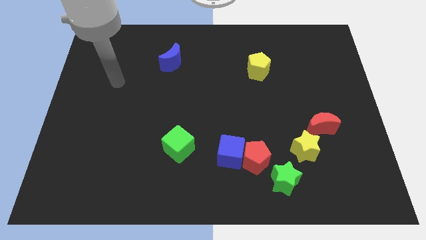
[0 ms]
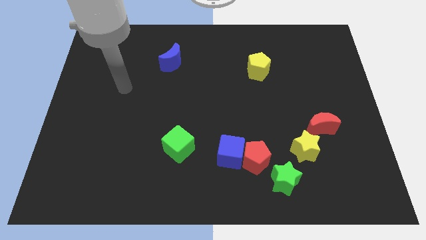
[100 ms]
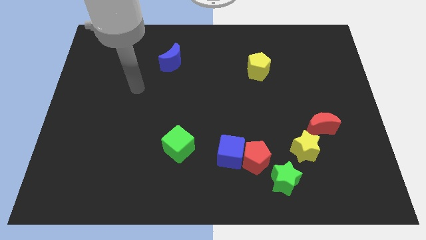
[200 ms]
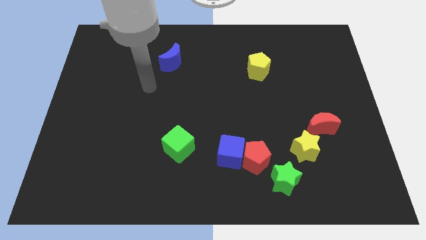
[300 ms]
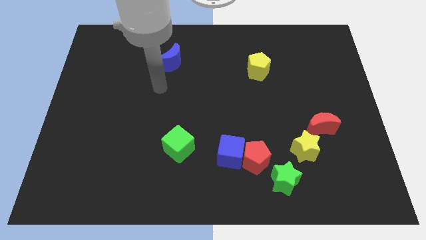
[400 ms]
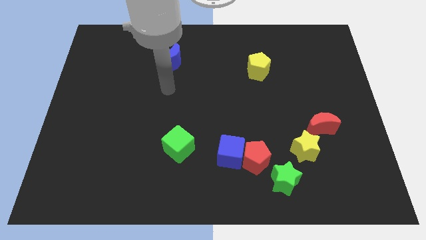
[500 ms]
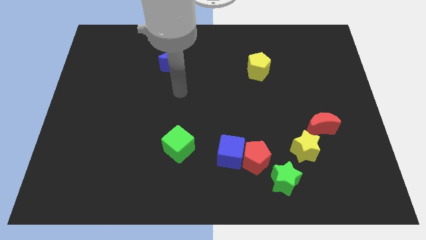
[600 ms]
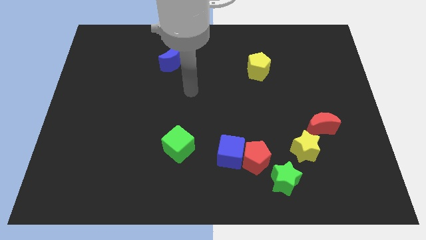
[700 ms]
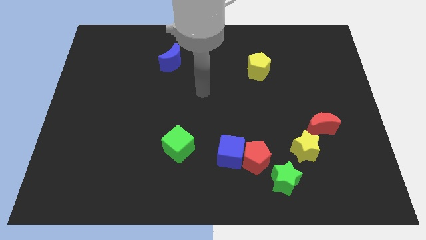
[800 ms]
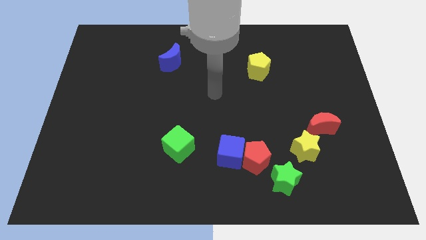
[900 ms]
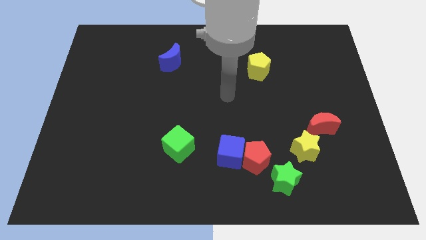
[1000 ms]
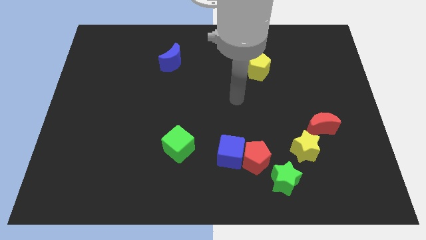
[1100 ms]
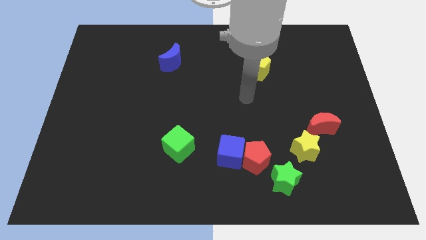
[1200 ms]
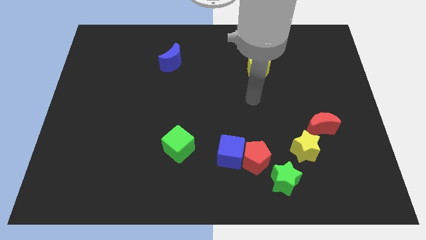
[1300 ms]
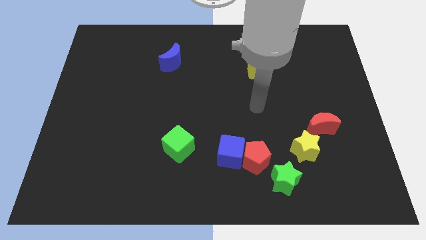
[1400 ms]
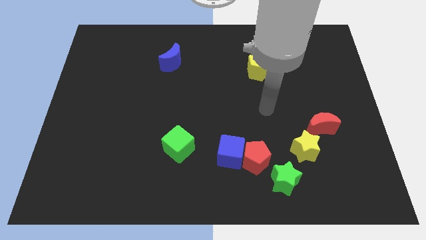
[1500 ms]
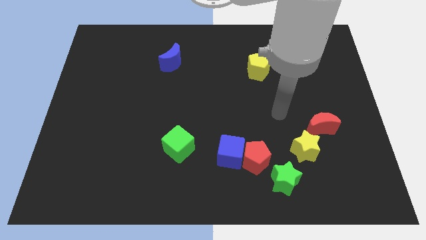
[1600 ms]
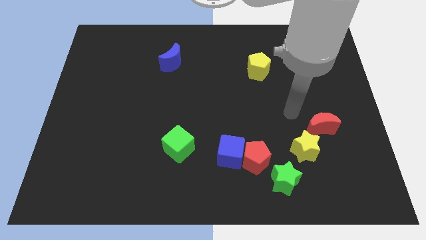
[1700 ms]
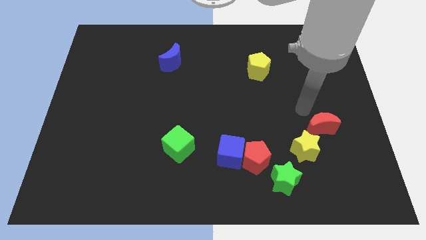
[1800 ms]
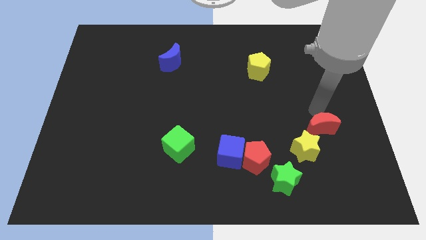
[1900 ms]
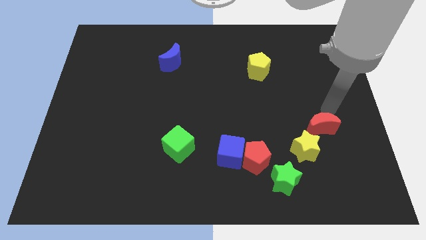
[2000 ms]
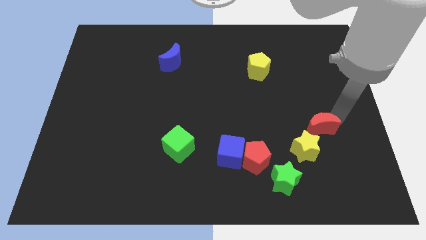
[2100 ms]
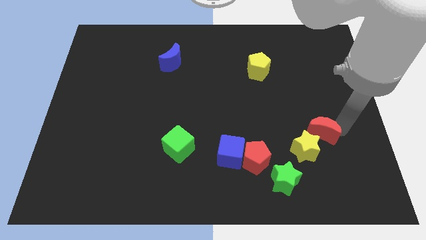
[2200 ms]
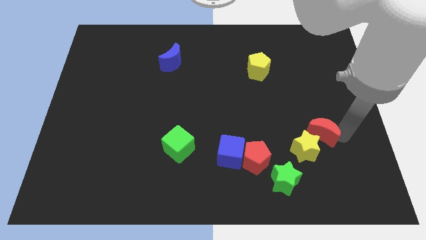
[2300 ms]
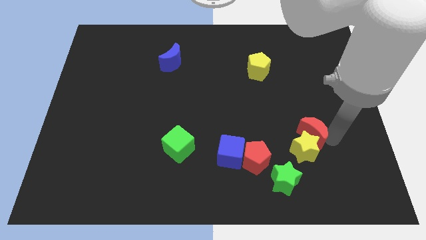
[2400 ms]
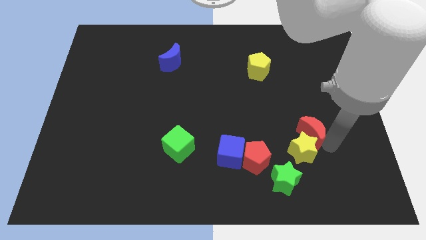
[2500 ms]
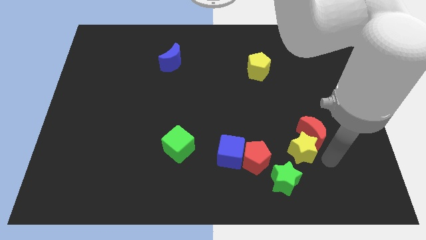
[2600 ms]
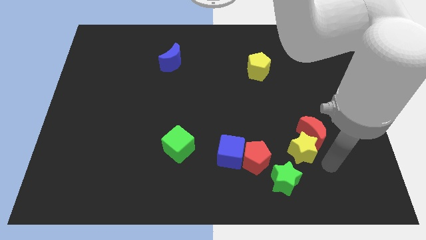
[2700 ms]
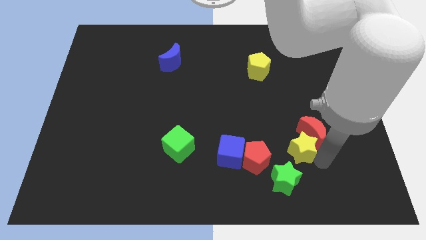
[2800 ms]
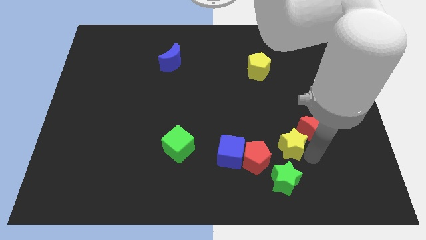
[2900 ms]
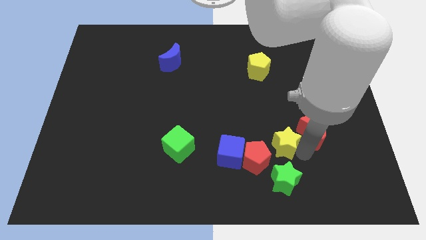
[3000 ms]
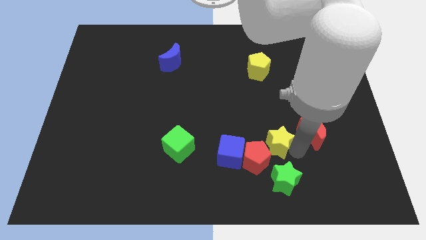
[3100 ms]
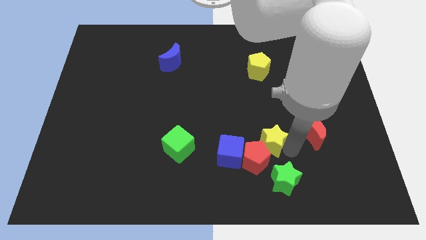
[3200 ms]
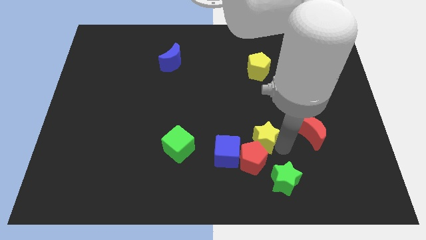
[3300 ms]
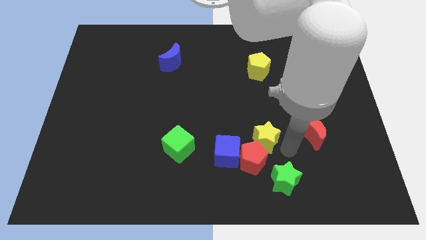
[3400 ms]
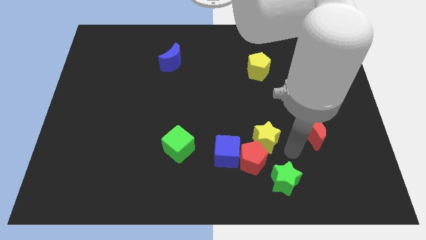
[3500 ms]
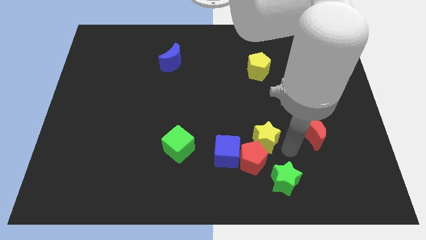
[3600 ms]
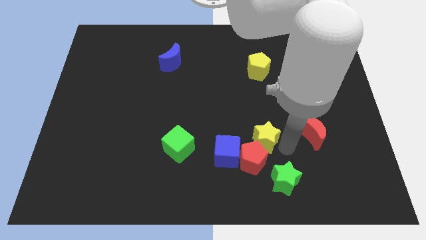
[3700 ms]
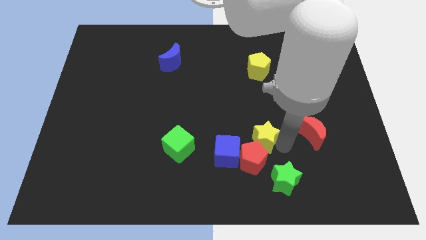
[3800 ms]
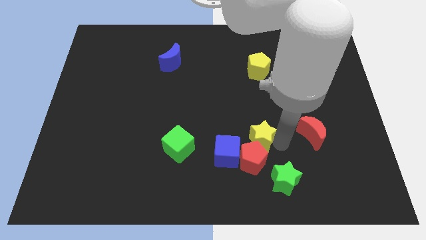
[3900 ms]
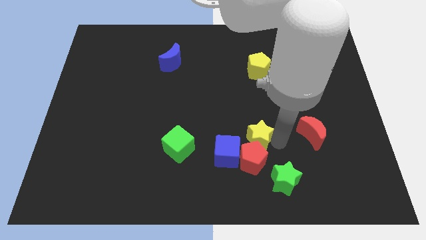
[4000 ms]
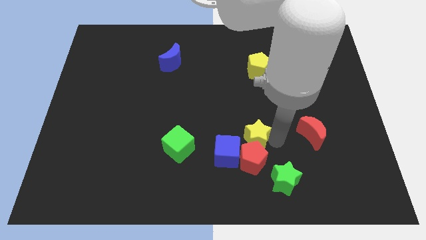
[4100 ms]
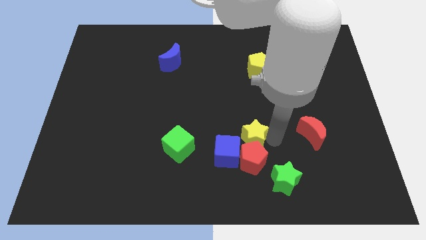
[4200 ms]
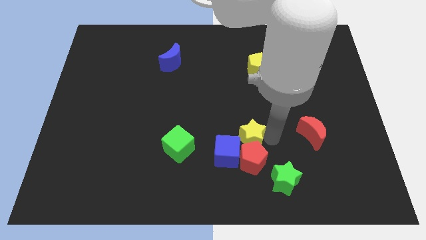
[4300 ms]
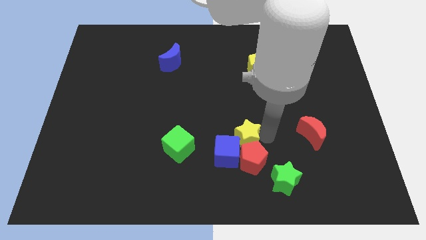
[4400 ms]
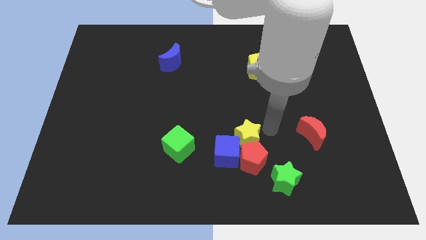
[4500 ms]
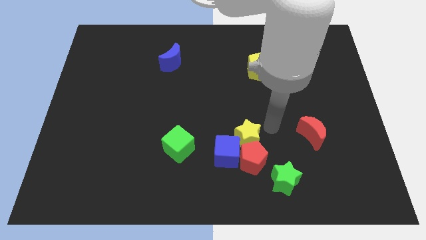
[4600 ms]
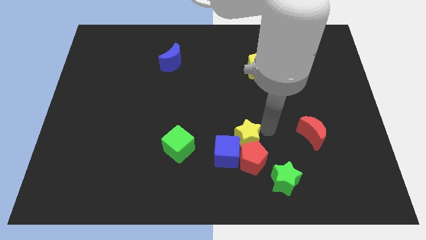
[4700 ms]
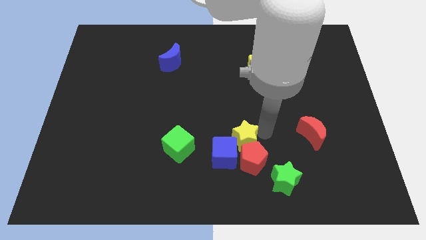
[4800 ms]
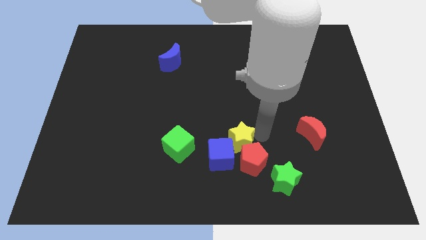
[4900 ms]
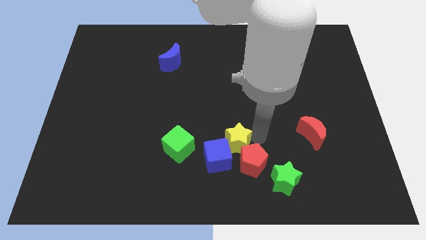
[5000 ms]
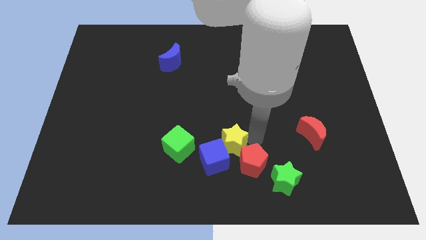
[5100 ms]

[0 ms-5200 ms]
push the yellow star to the left of the red pentagon

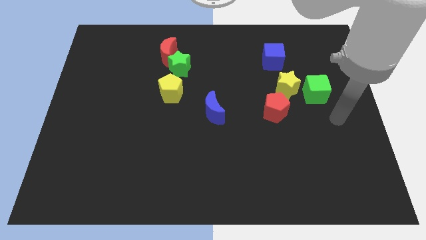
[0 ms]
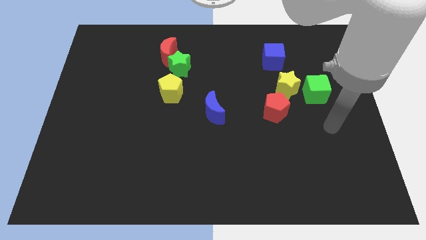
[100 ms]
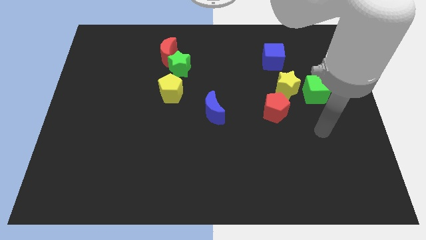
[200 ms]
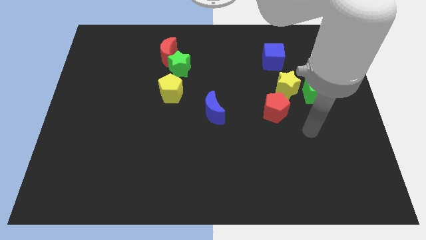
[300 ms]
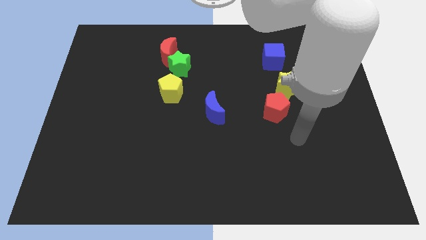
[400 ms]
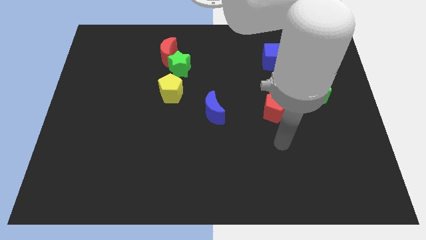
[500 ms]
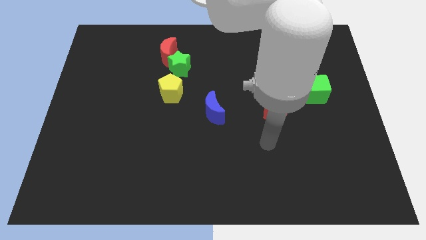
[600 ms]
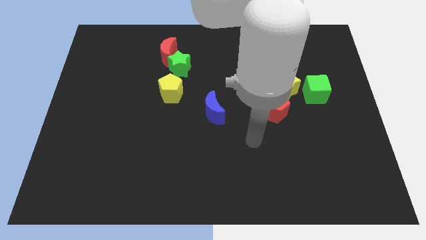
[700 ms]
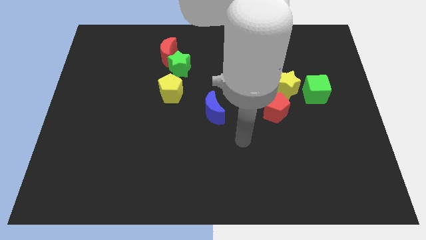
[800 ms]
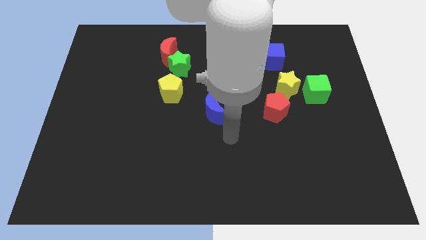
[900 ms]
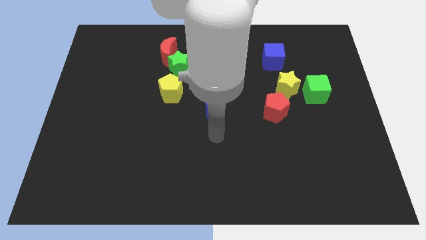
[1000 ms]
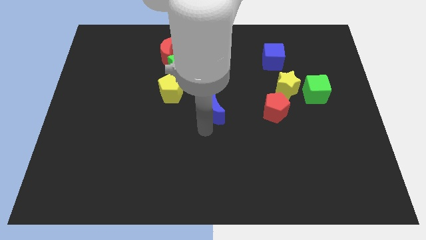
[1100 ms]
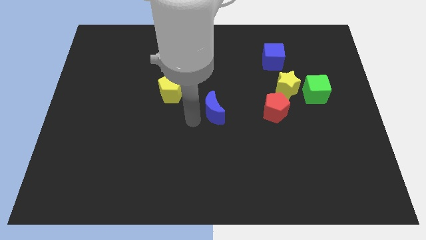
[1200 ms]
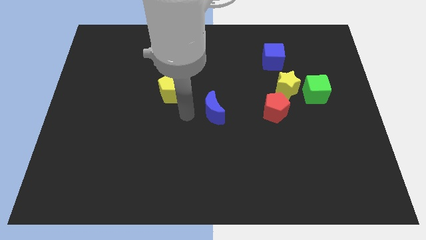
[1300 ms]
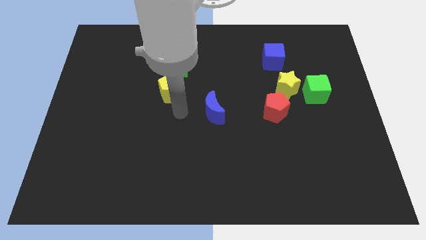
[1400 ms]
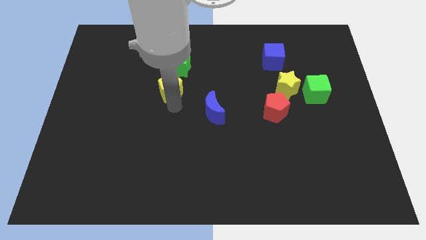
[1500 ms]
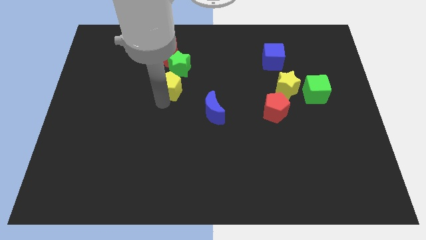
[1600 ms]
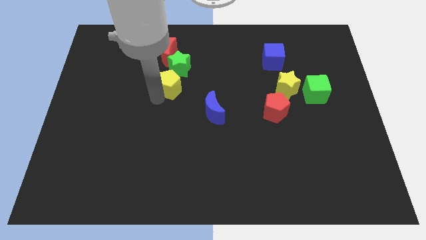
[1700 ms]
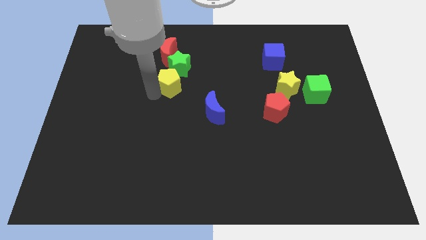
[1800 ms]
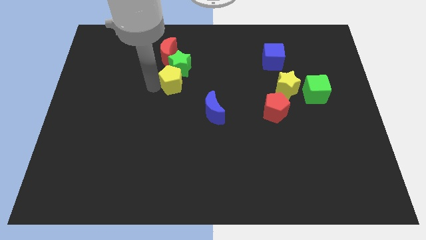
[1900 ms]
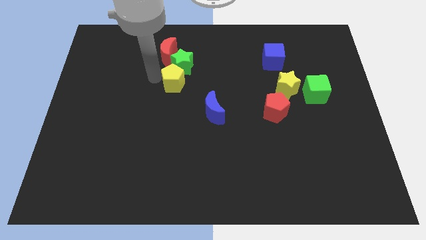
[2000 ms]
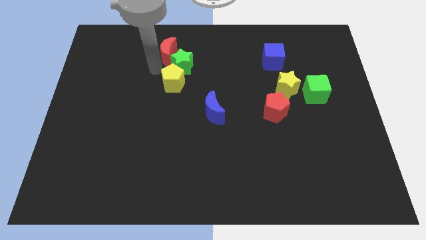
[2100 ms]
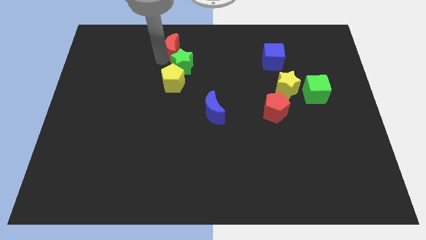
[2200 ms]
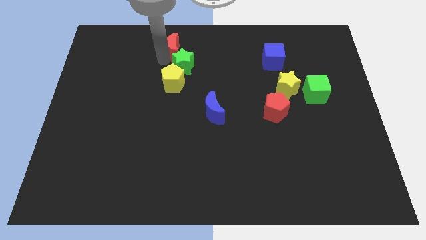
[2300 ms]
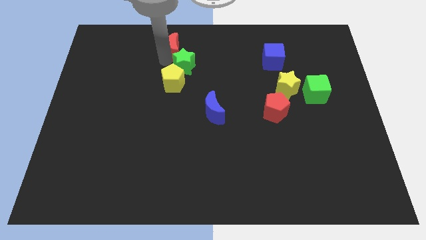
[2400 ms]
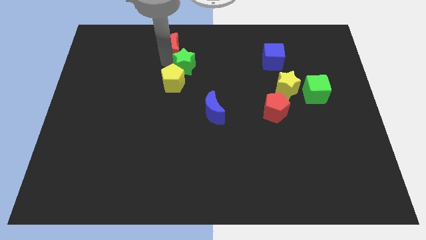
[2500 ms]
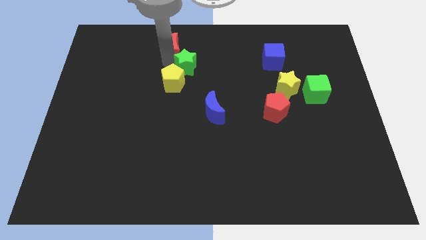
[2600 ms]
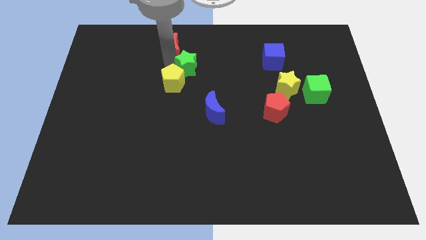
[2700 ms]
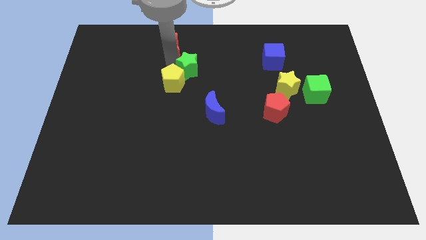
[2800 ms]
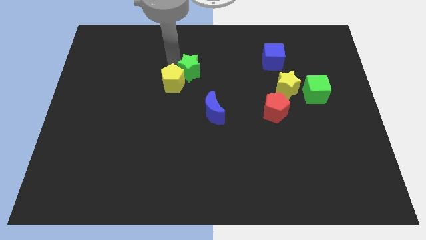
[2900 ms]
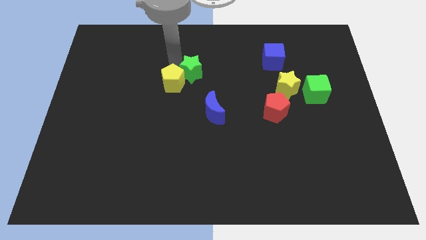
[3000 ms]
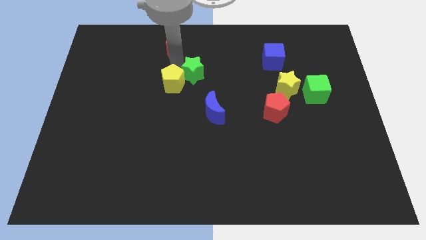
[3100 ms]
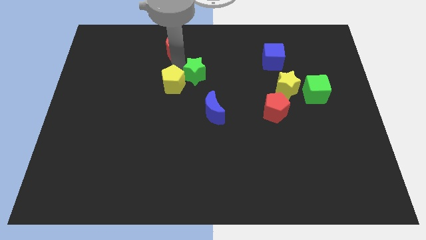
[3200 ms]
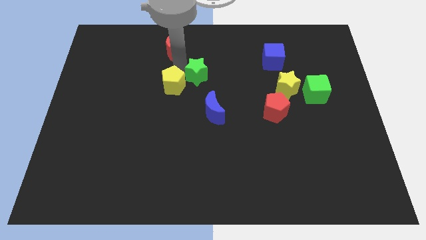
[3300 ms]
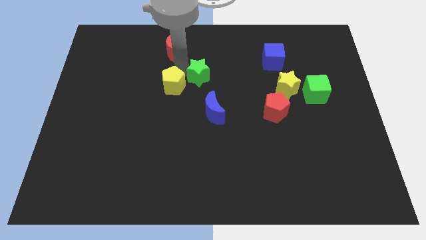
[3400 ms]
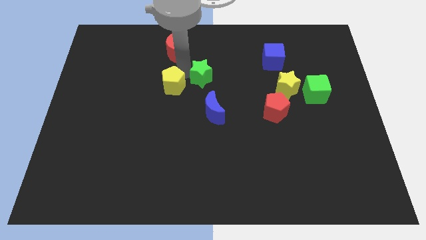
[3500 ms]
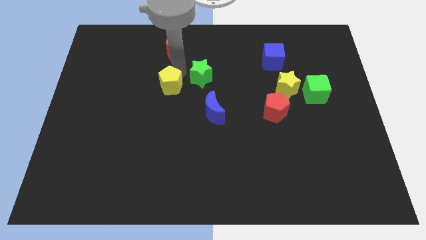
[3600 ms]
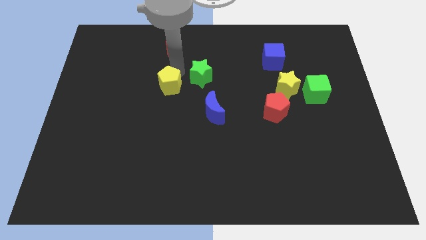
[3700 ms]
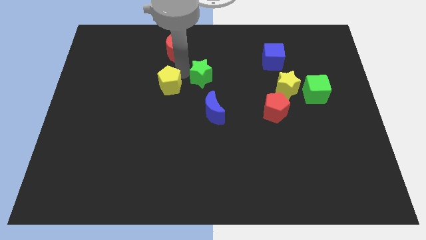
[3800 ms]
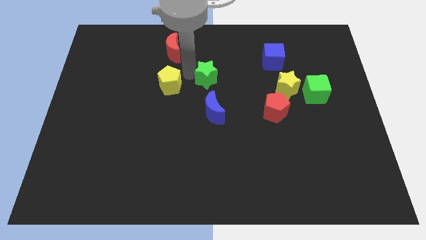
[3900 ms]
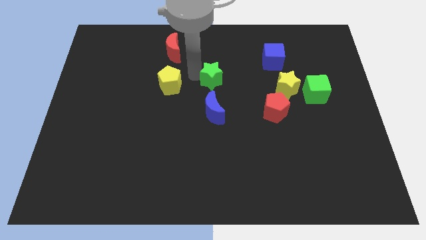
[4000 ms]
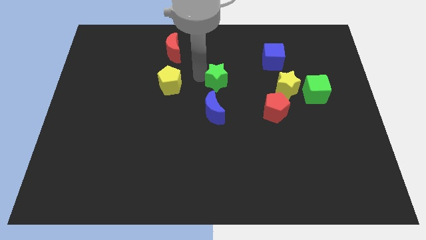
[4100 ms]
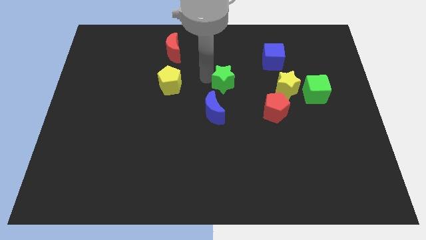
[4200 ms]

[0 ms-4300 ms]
slide the green star to the left side of the yellow star
